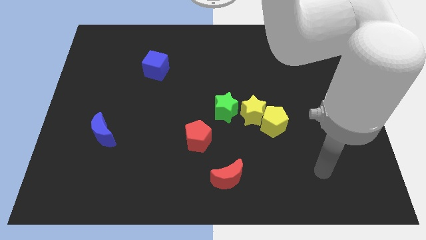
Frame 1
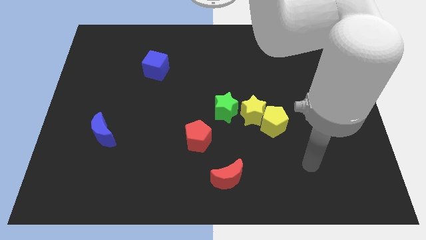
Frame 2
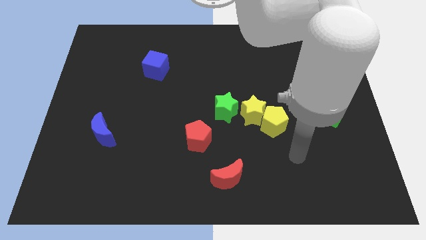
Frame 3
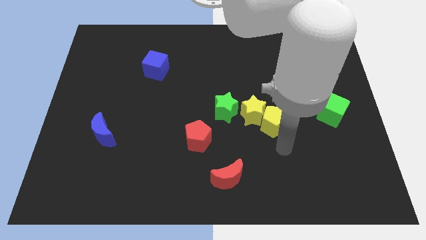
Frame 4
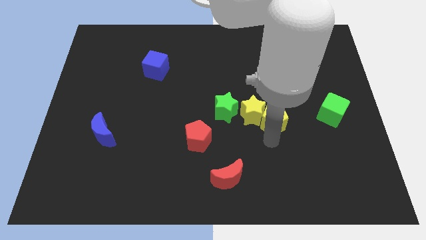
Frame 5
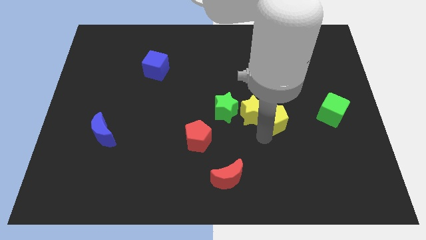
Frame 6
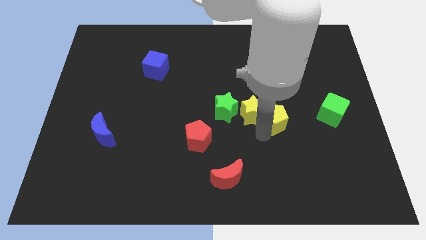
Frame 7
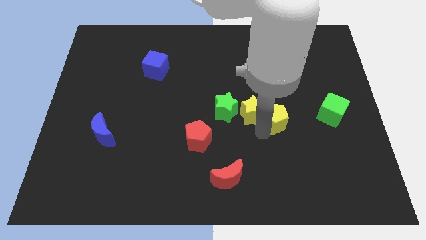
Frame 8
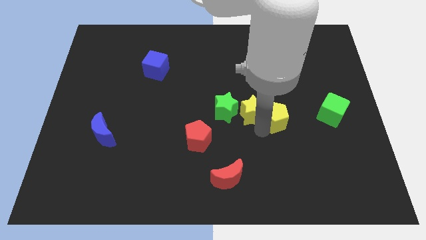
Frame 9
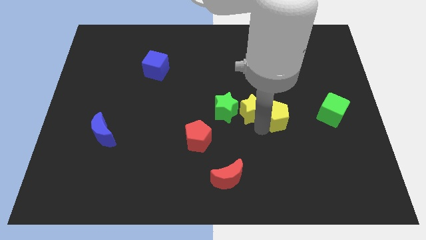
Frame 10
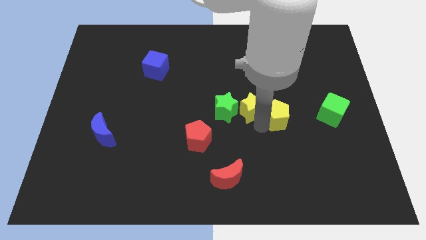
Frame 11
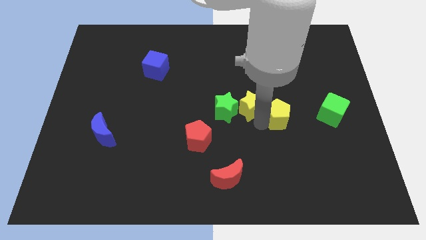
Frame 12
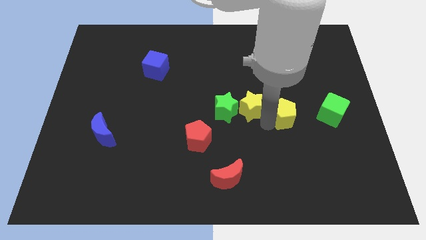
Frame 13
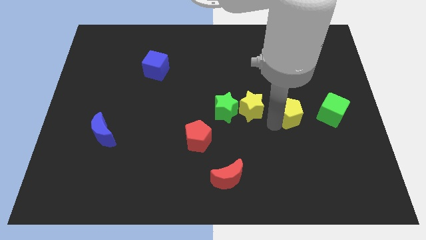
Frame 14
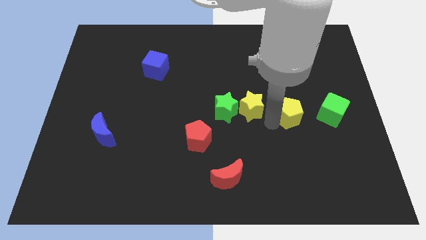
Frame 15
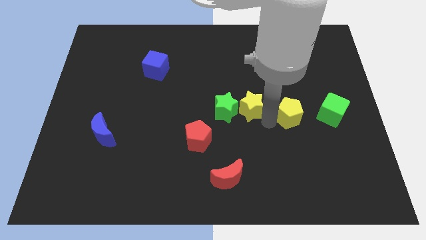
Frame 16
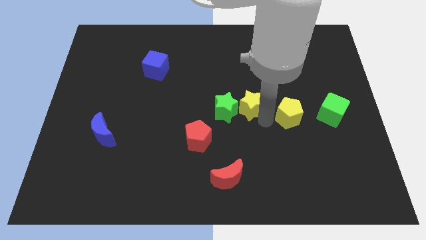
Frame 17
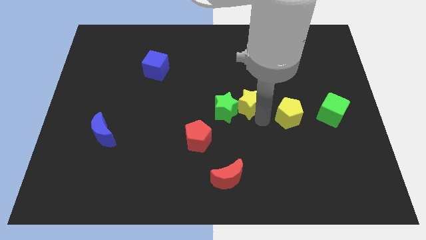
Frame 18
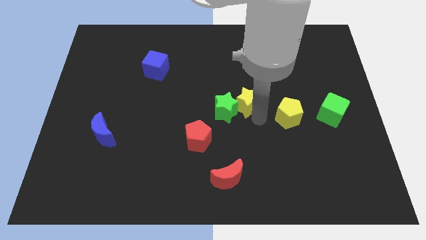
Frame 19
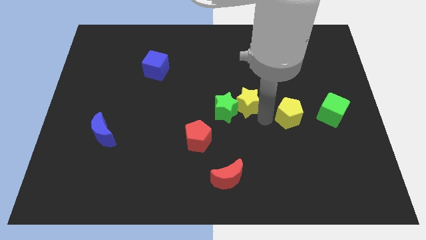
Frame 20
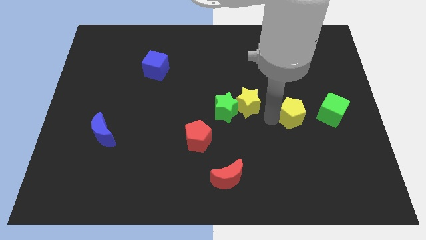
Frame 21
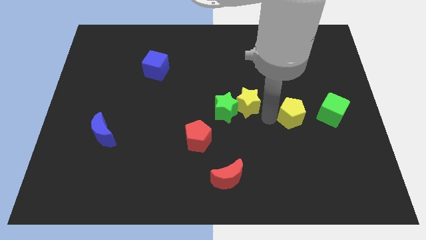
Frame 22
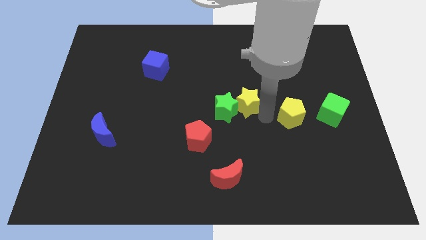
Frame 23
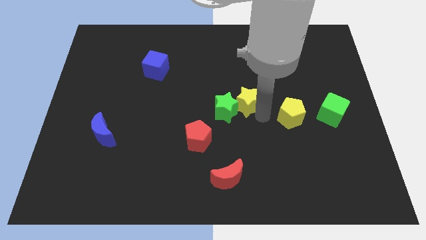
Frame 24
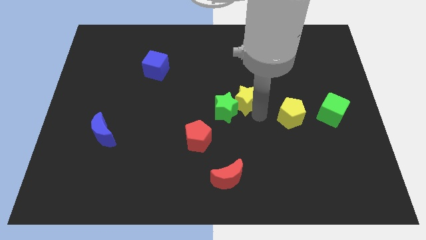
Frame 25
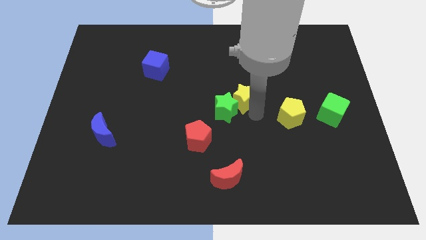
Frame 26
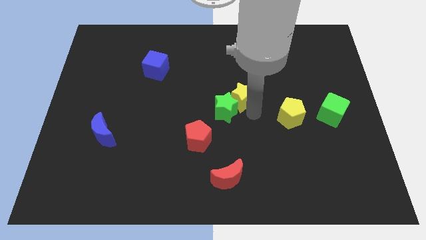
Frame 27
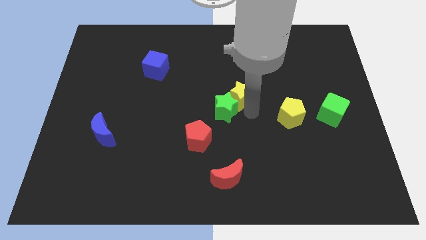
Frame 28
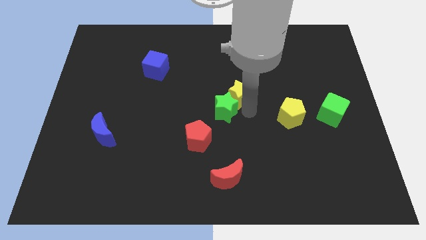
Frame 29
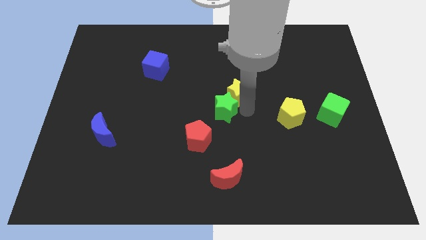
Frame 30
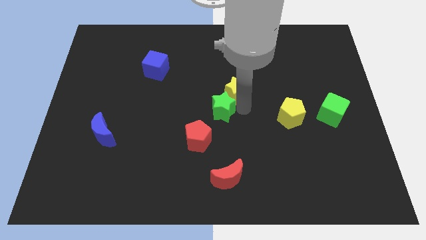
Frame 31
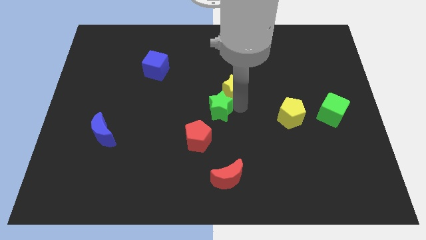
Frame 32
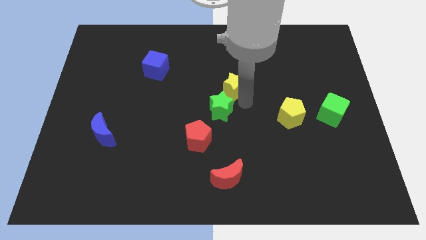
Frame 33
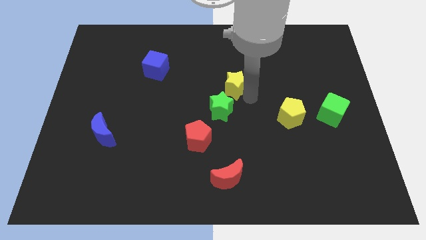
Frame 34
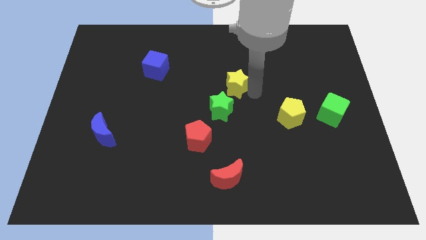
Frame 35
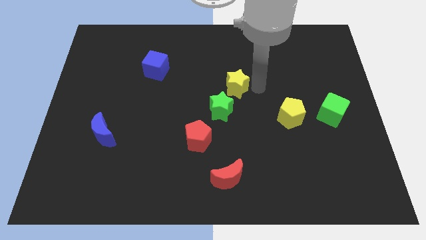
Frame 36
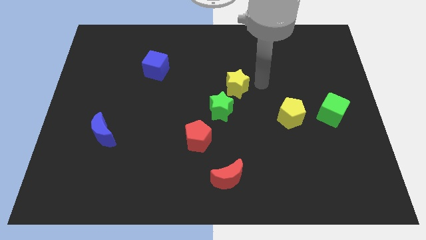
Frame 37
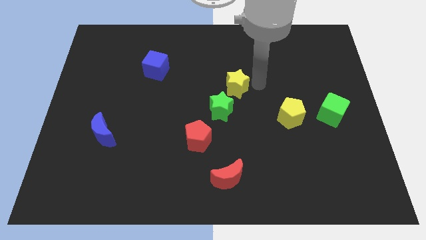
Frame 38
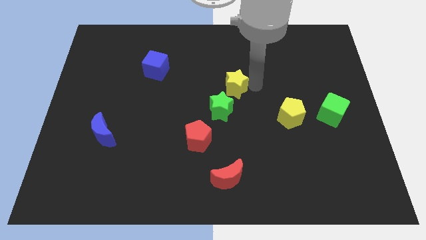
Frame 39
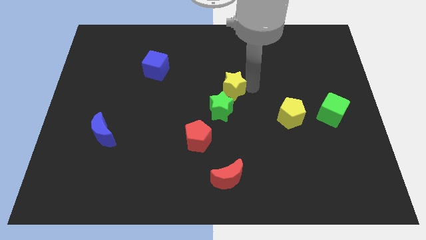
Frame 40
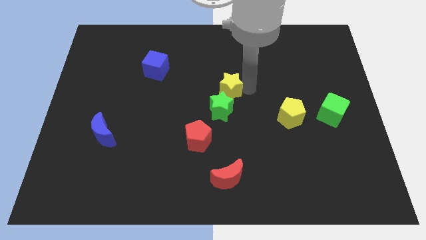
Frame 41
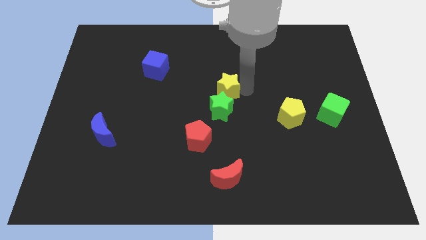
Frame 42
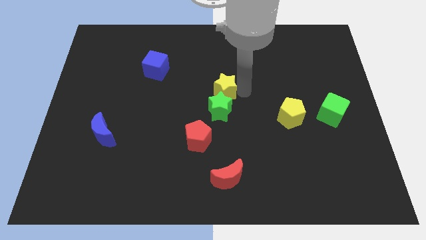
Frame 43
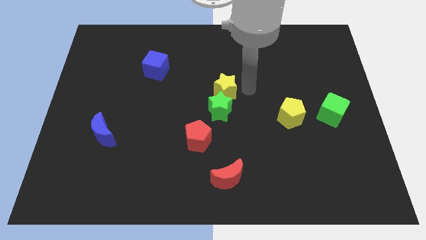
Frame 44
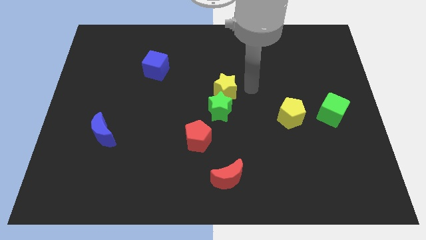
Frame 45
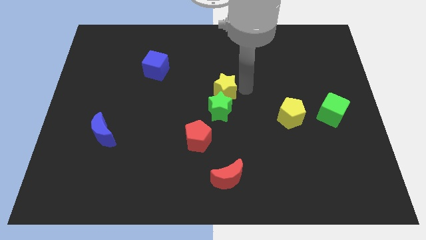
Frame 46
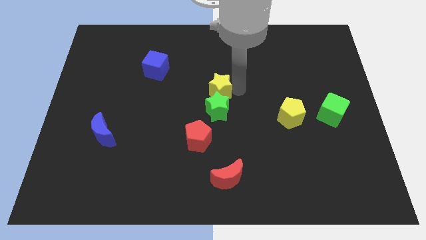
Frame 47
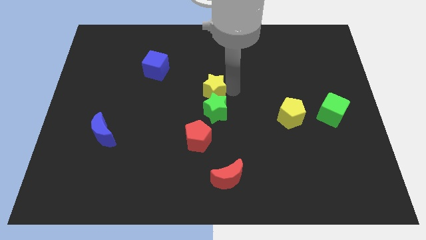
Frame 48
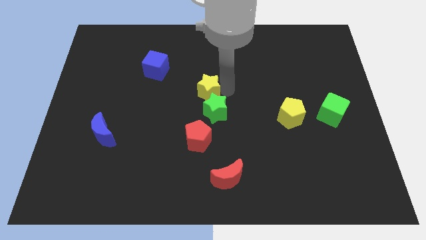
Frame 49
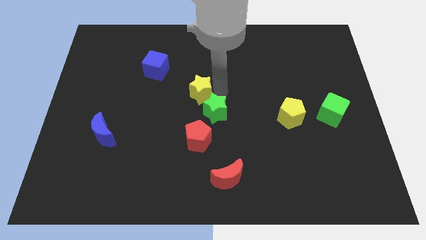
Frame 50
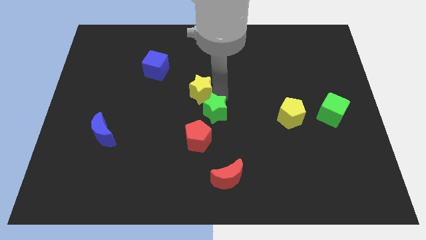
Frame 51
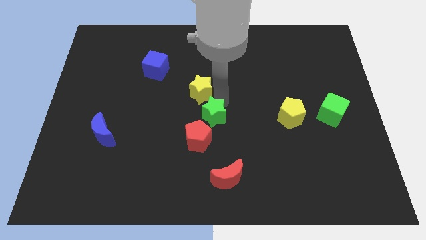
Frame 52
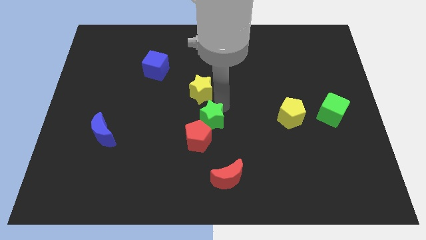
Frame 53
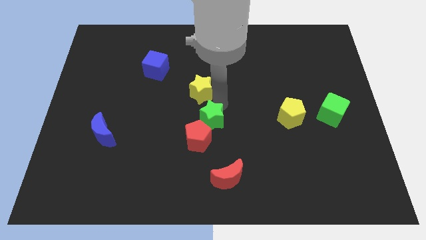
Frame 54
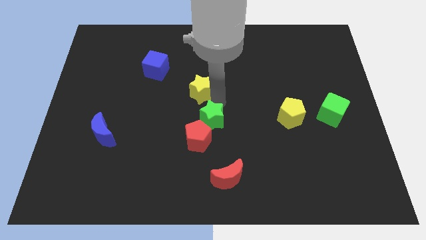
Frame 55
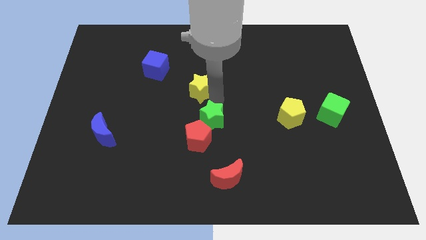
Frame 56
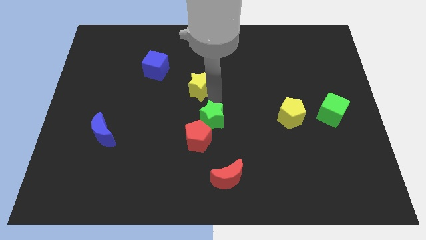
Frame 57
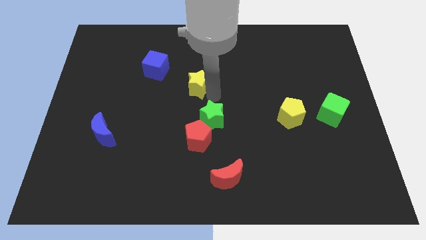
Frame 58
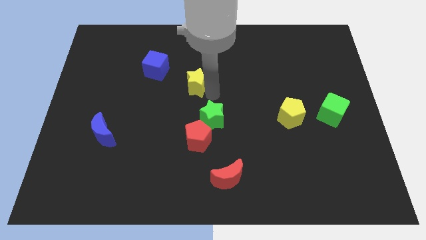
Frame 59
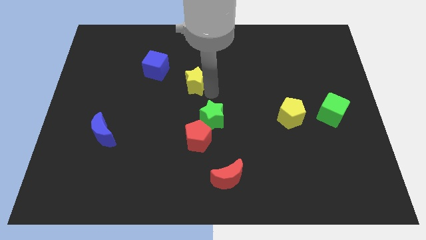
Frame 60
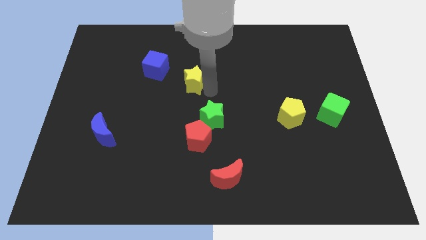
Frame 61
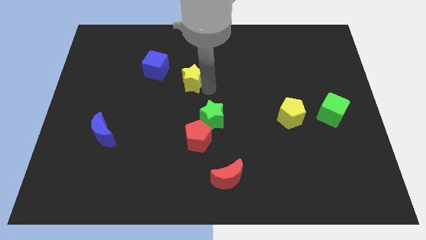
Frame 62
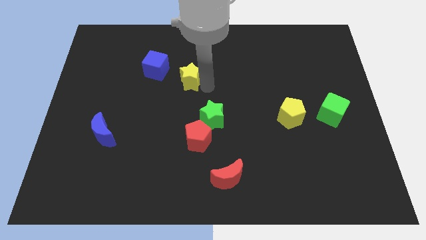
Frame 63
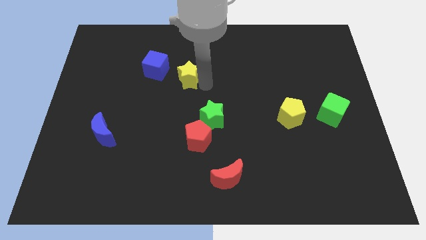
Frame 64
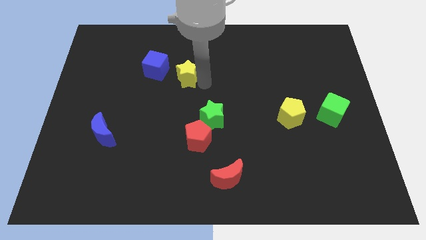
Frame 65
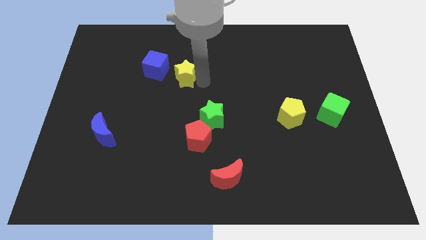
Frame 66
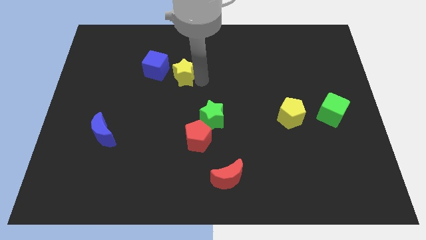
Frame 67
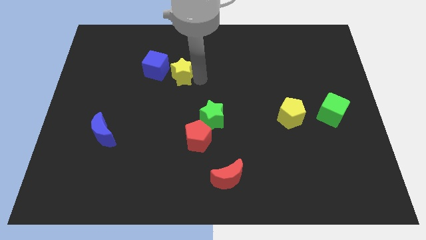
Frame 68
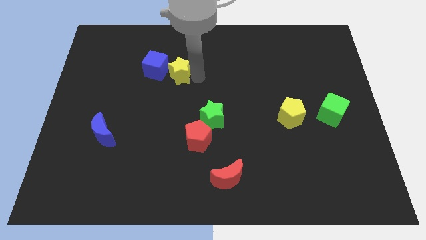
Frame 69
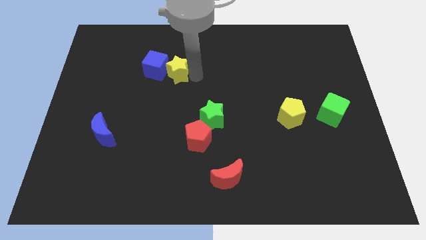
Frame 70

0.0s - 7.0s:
put the yellow star towards the blue cube
